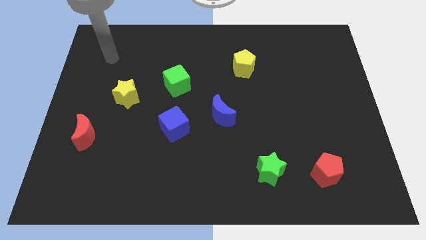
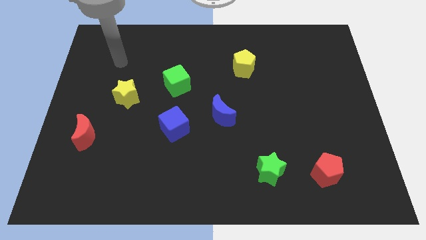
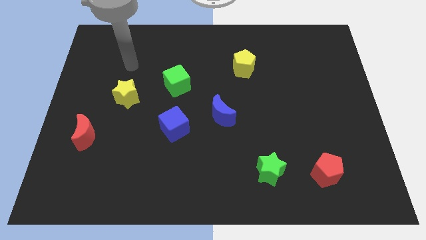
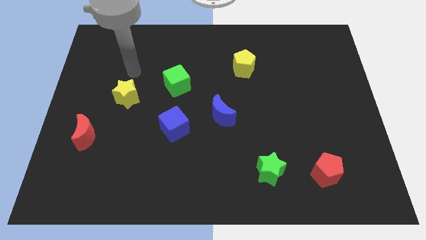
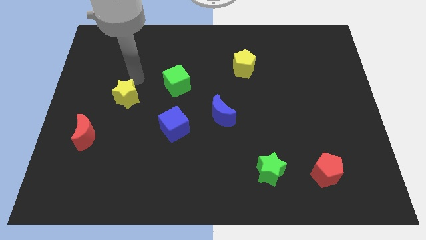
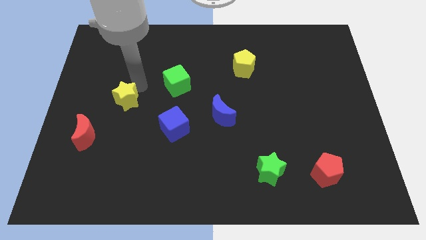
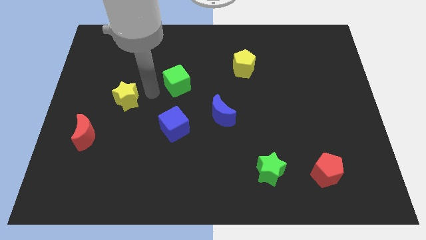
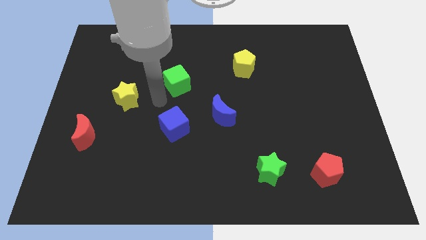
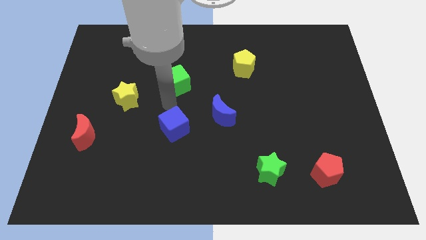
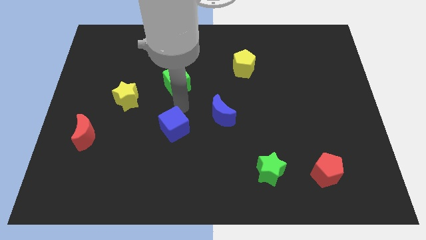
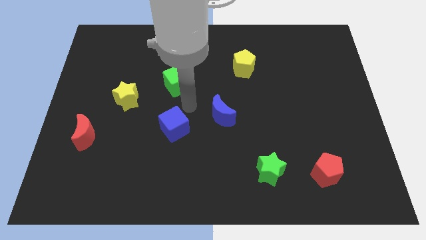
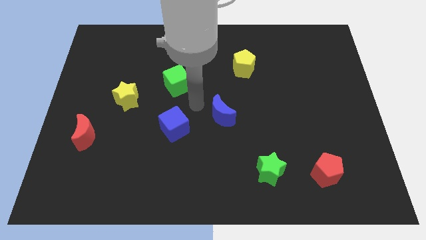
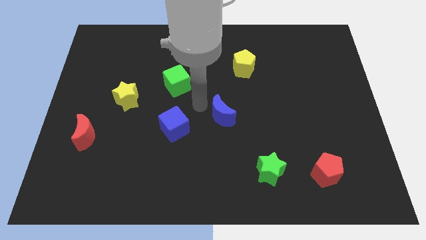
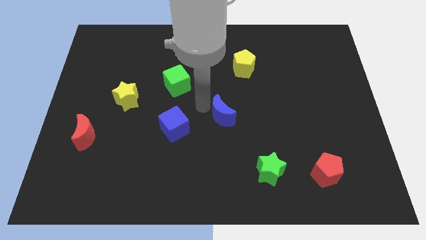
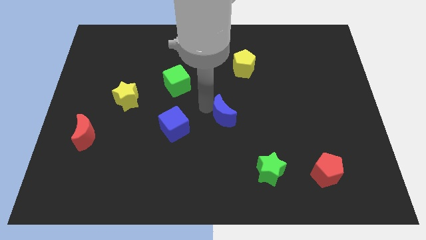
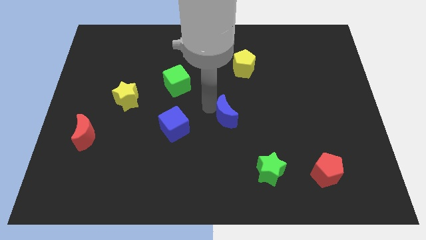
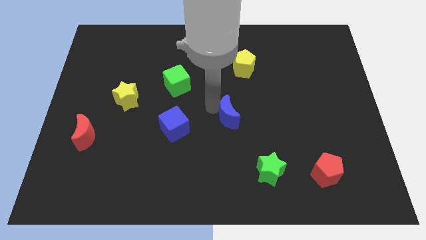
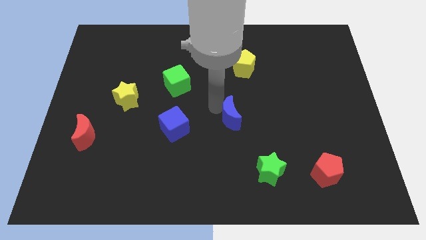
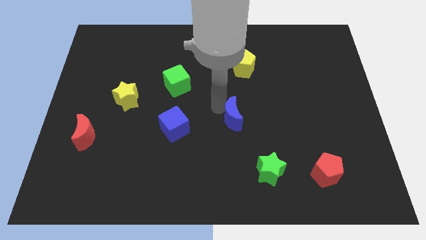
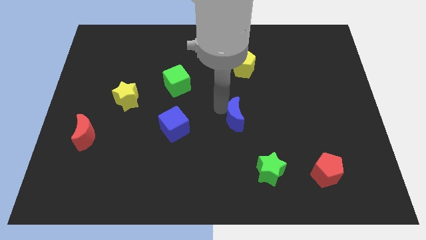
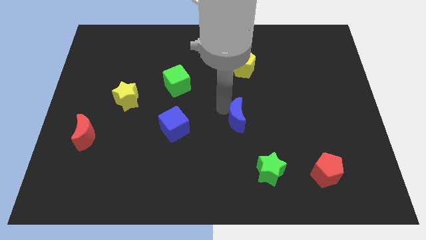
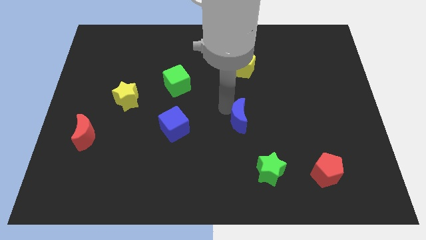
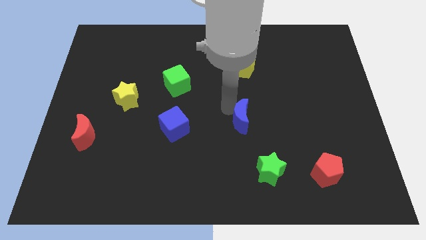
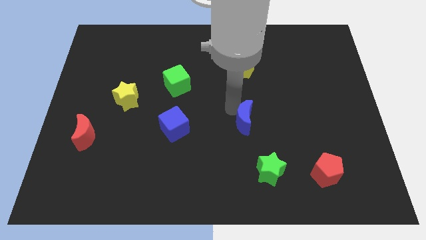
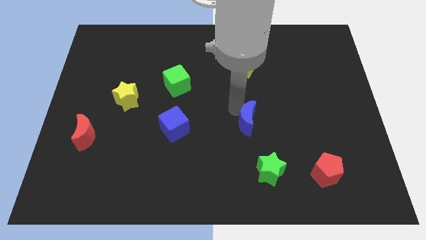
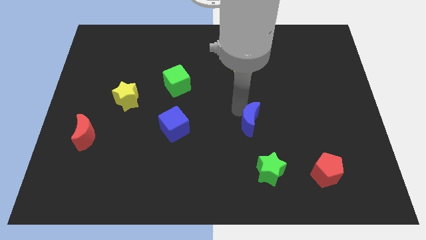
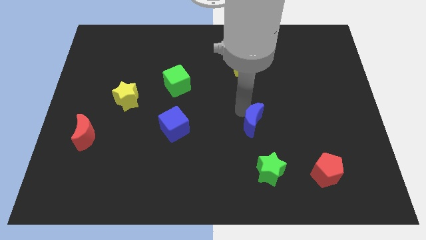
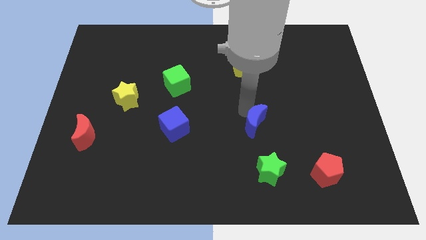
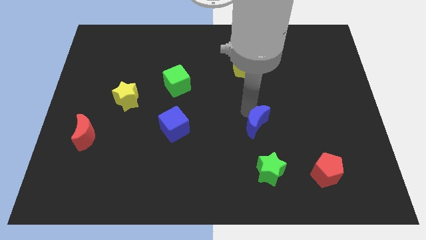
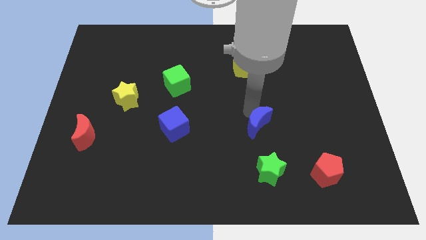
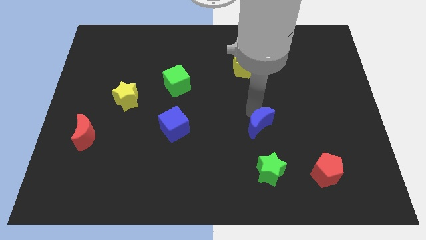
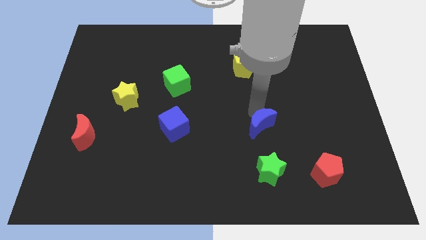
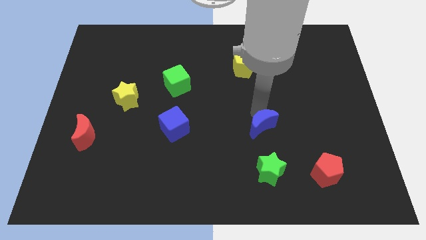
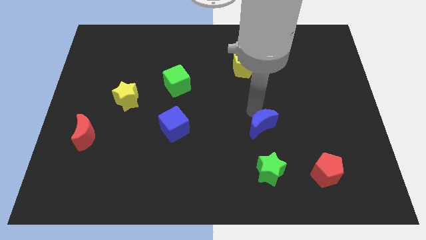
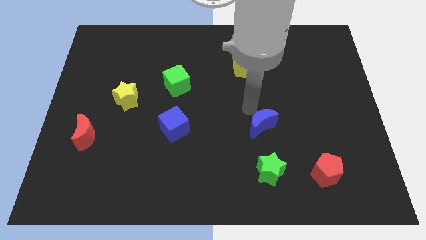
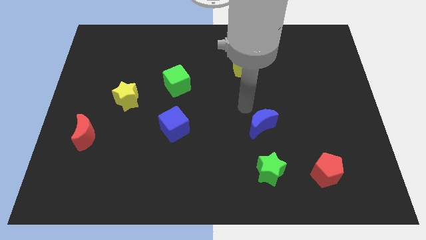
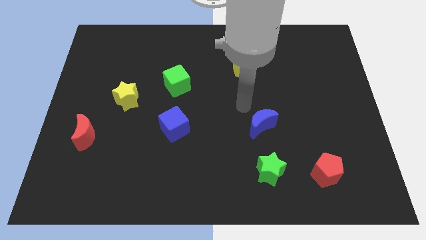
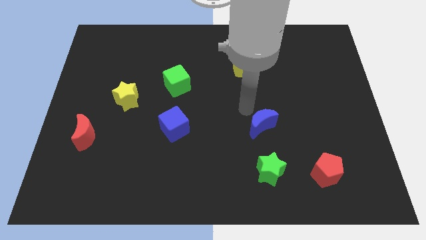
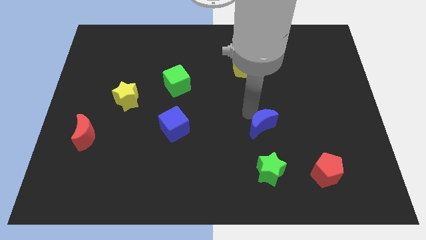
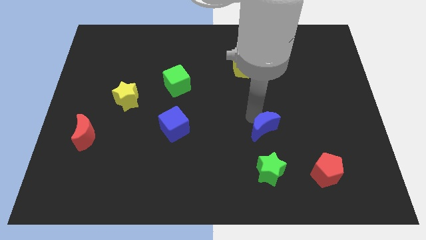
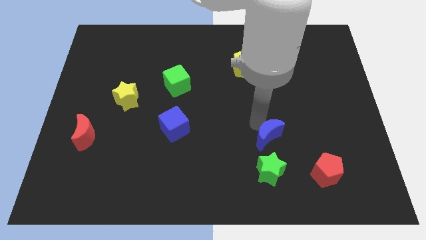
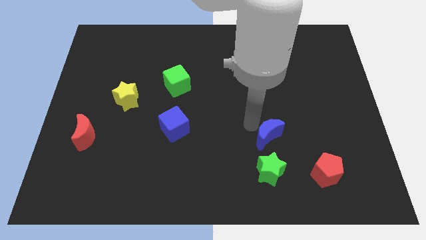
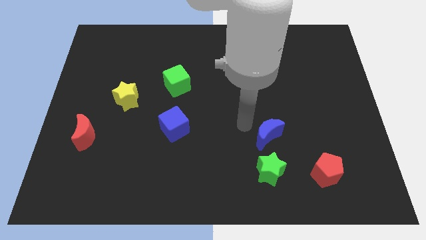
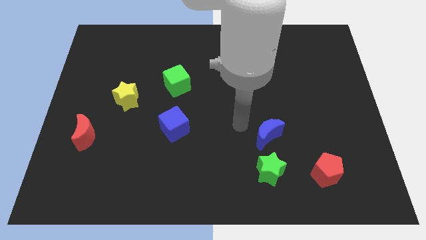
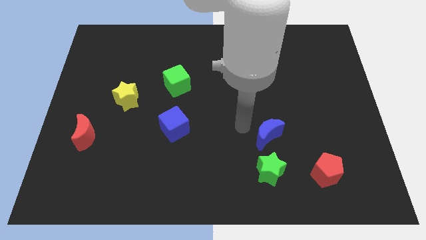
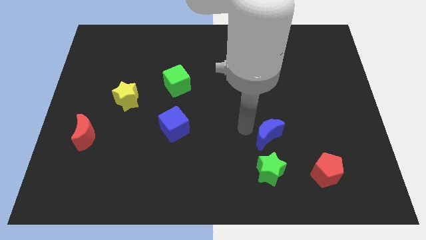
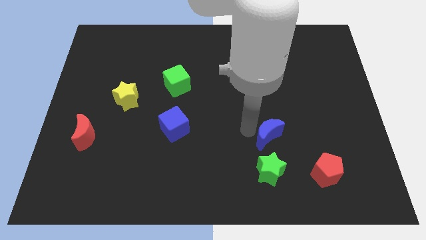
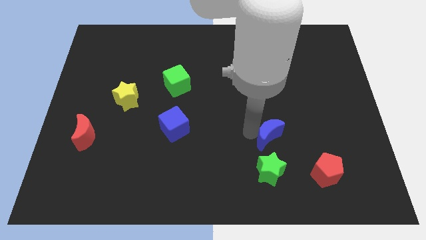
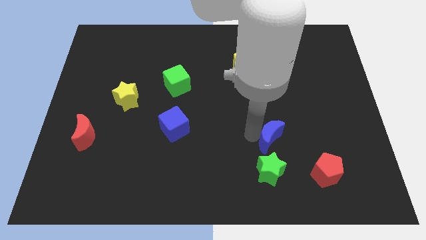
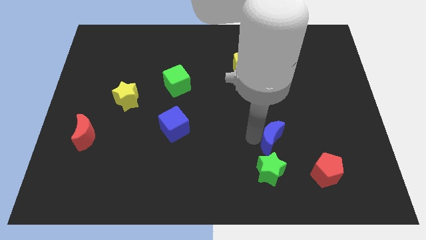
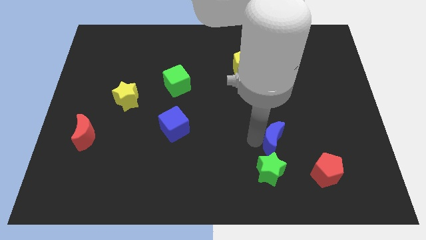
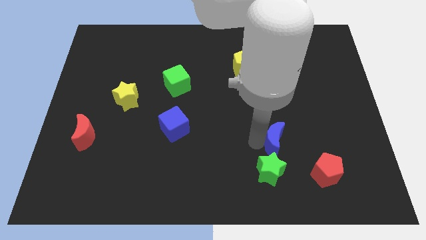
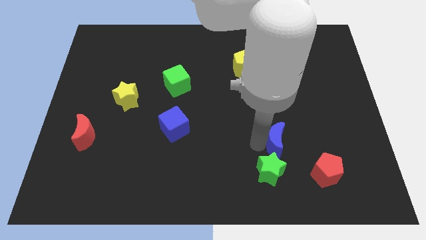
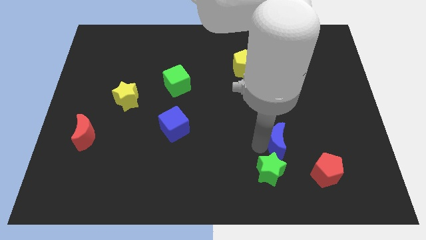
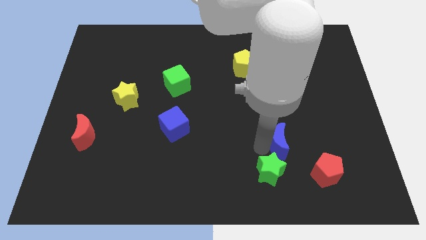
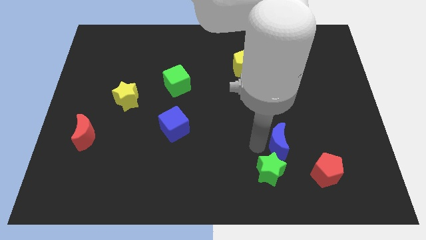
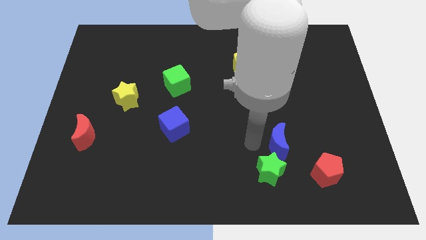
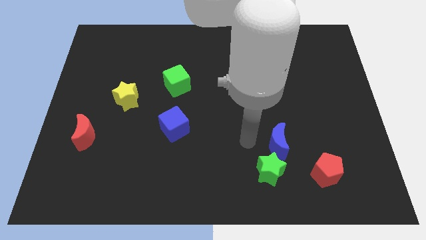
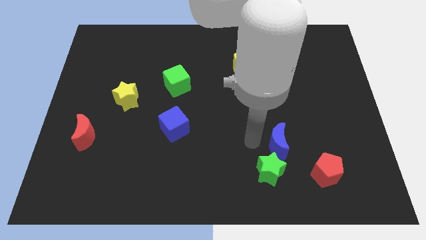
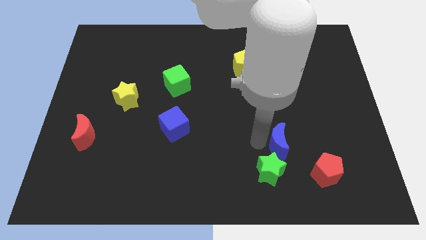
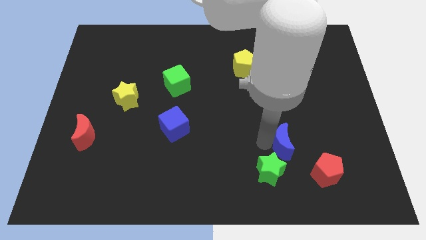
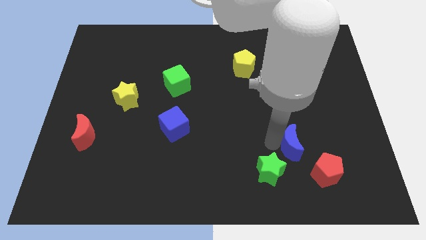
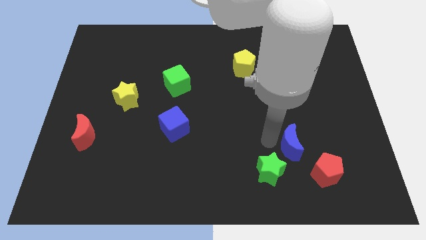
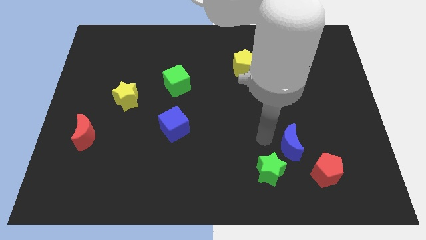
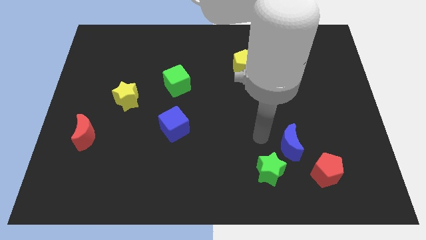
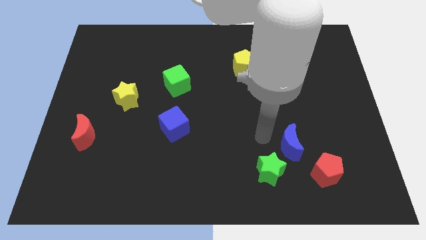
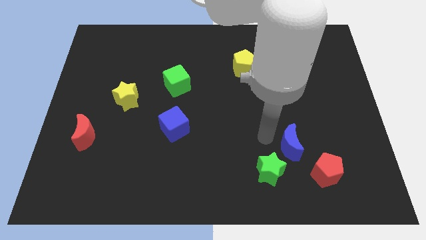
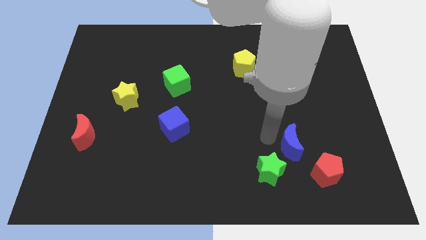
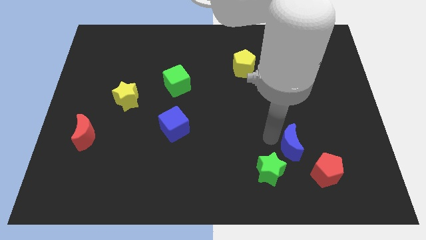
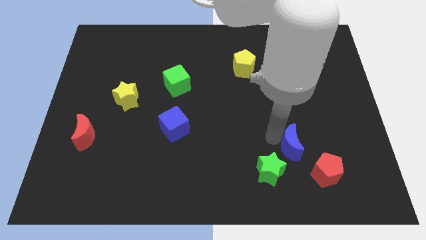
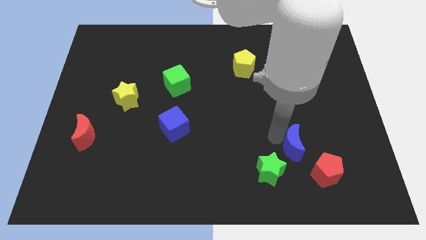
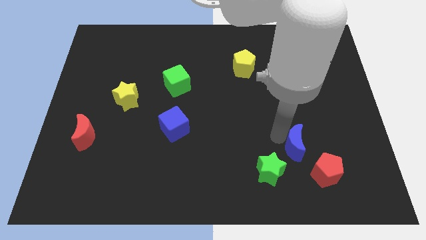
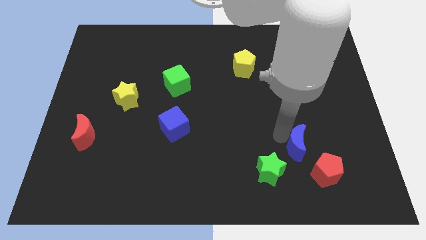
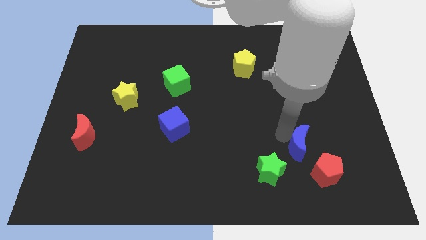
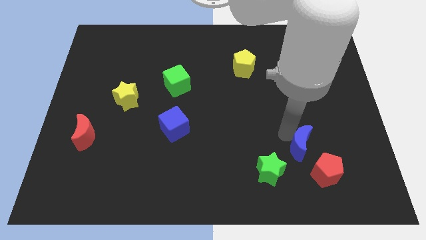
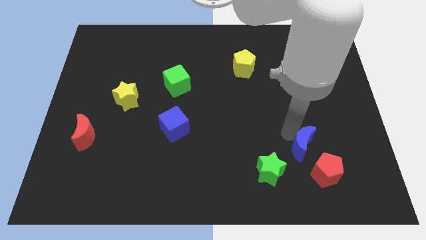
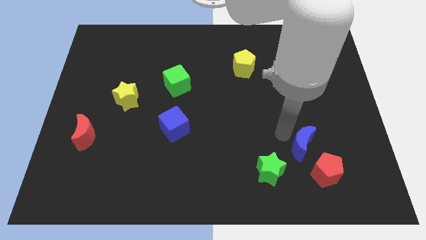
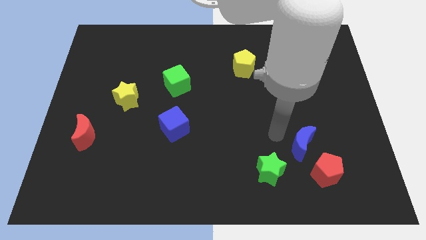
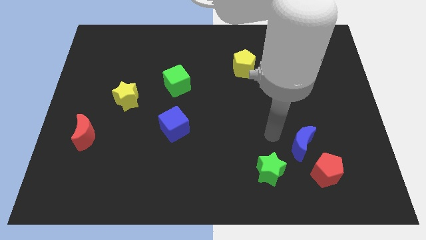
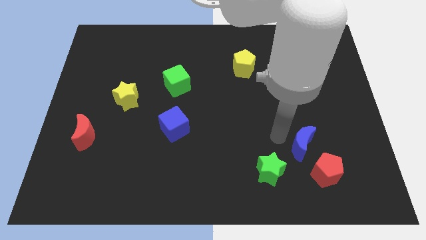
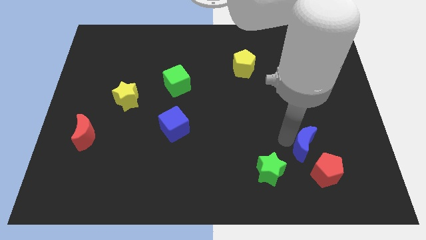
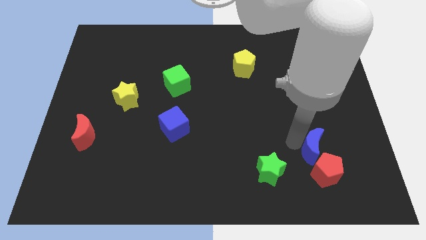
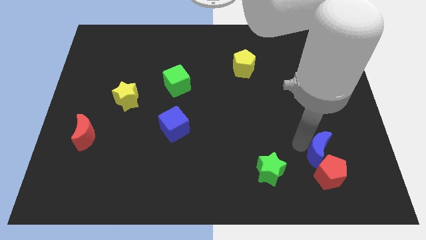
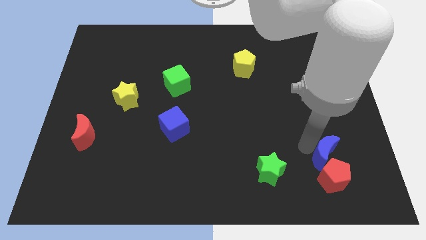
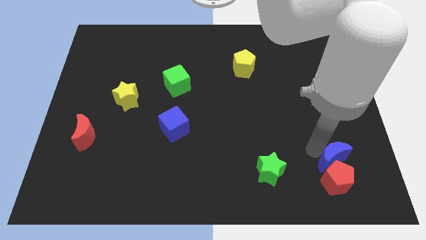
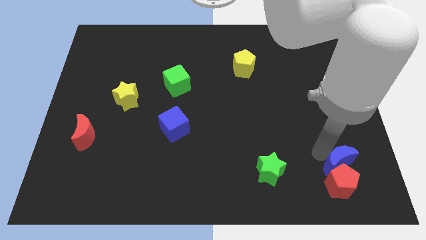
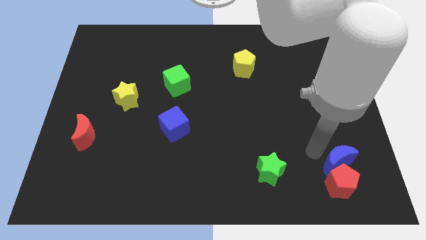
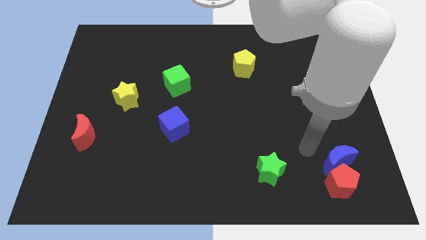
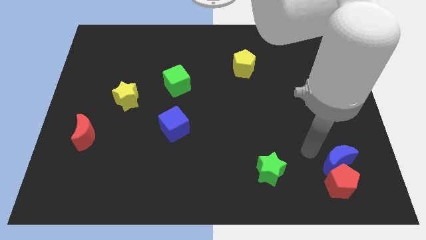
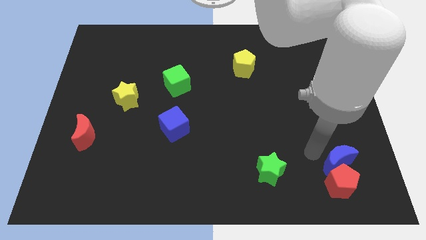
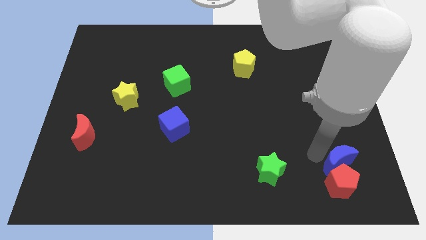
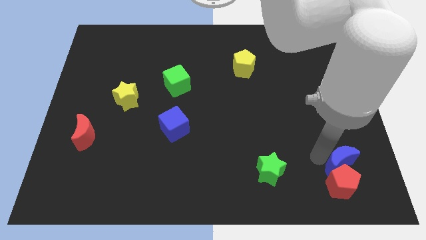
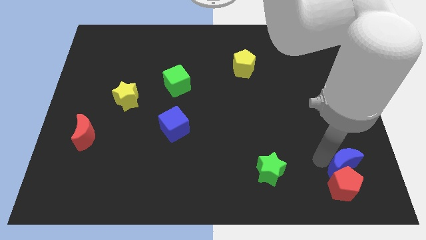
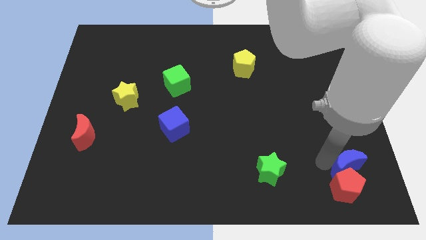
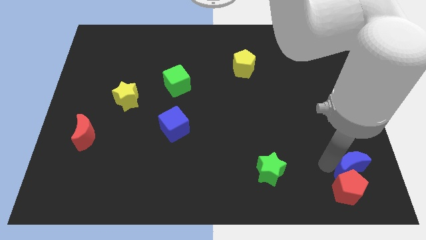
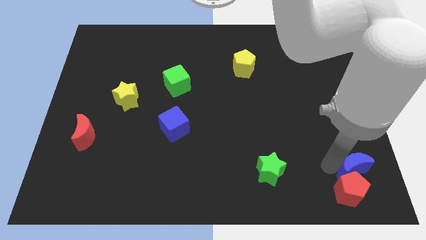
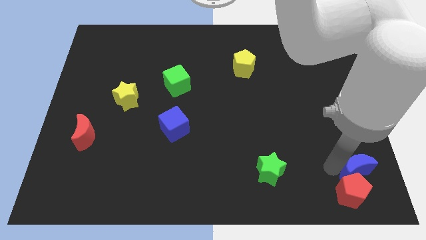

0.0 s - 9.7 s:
slide the blue moon to the bottom right
